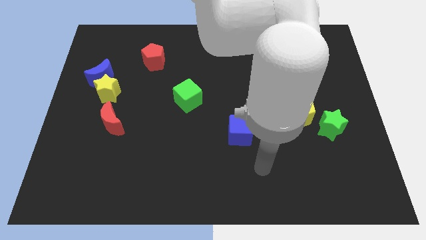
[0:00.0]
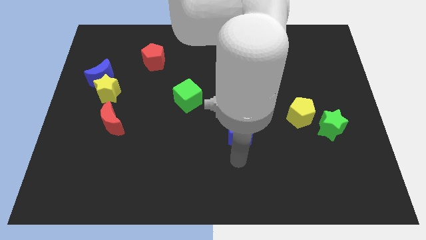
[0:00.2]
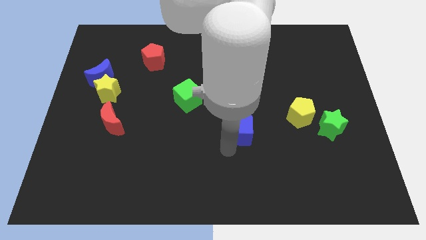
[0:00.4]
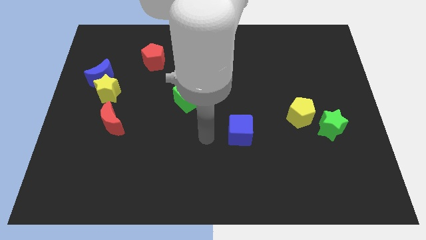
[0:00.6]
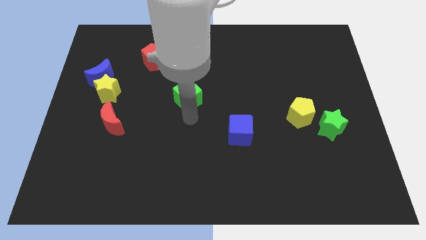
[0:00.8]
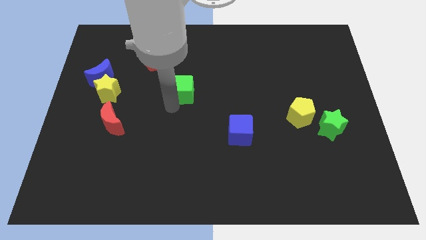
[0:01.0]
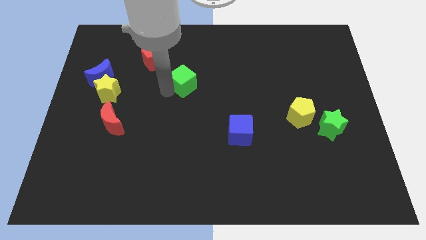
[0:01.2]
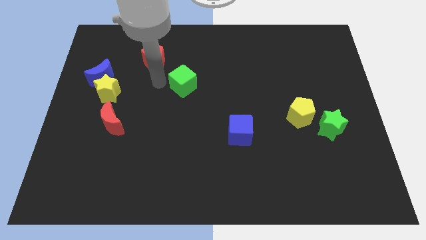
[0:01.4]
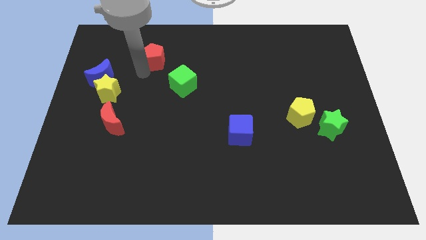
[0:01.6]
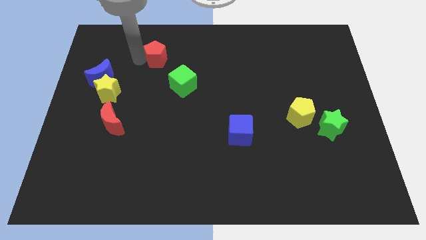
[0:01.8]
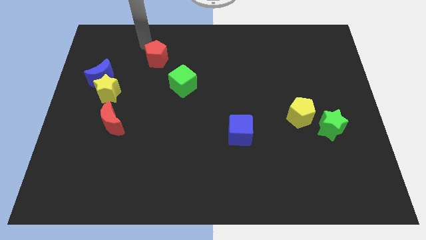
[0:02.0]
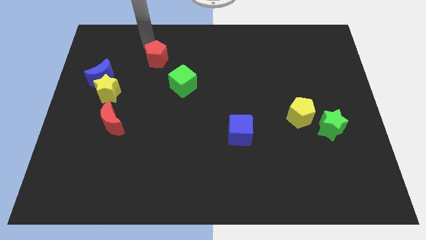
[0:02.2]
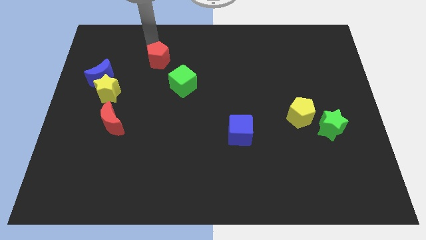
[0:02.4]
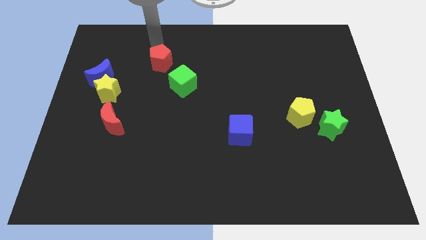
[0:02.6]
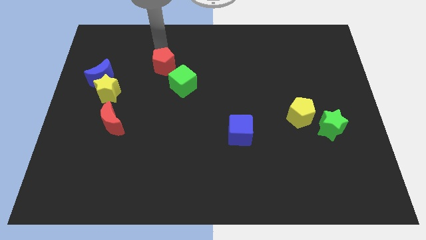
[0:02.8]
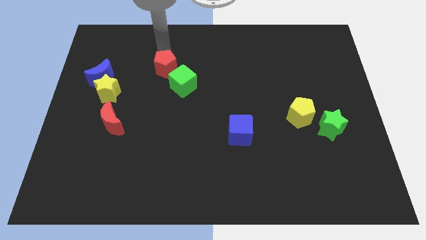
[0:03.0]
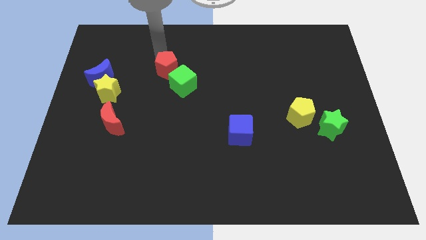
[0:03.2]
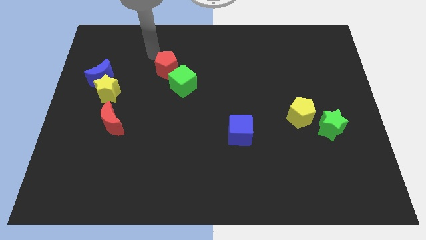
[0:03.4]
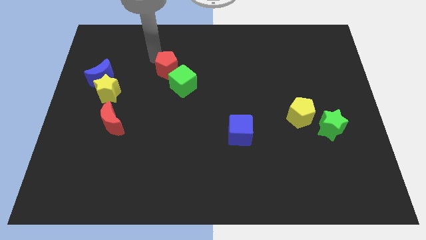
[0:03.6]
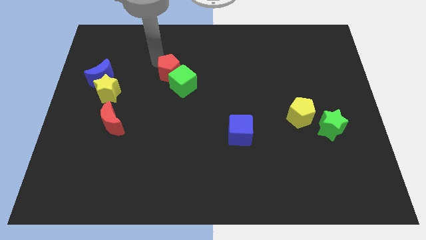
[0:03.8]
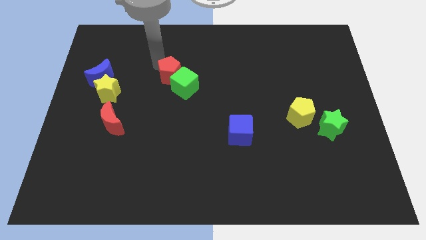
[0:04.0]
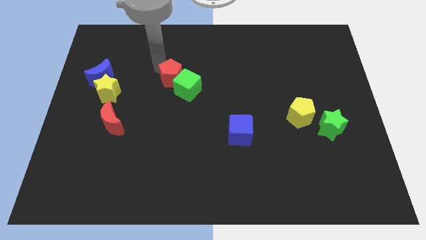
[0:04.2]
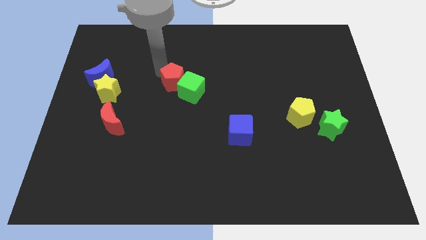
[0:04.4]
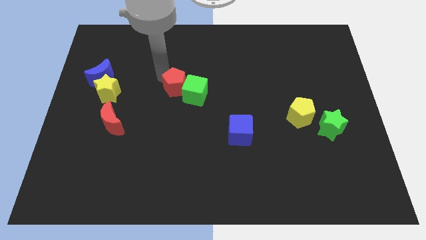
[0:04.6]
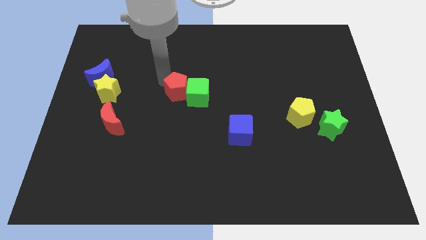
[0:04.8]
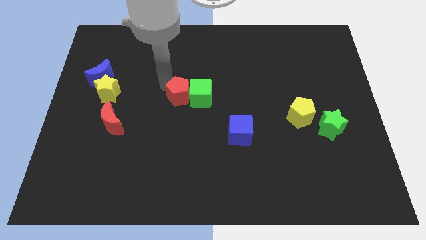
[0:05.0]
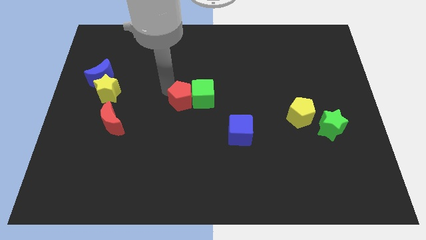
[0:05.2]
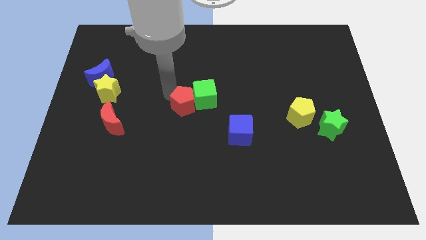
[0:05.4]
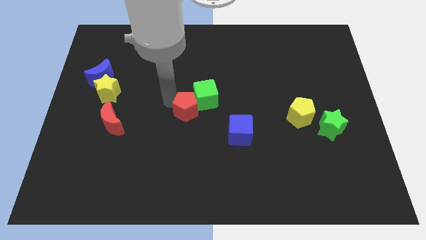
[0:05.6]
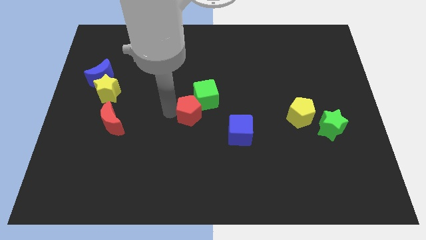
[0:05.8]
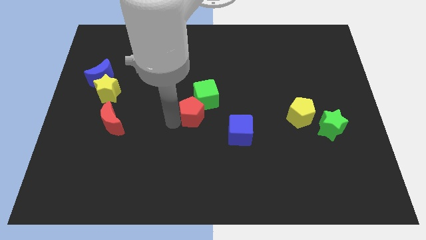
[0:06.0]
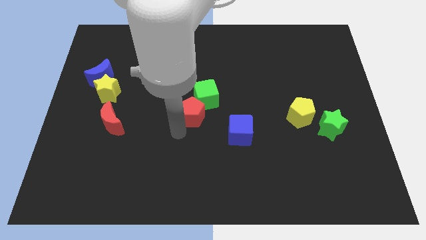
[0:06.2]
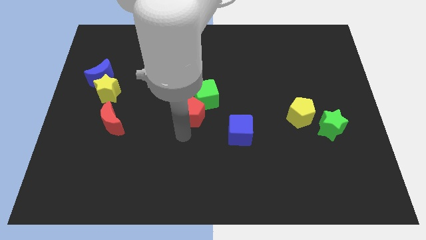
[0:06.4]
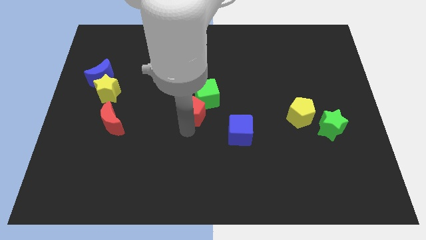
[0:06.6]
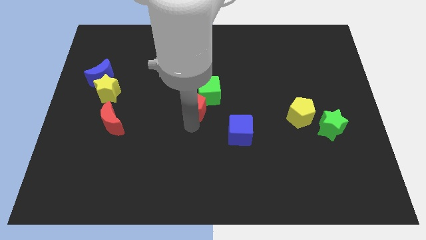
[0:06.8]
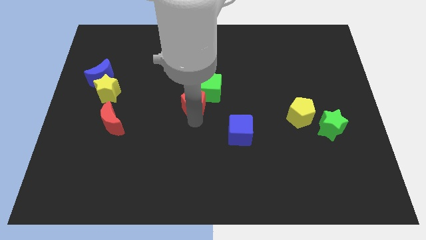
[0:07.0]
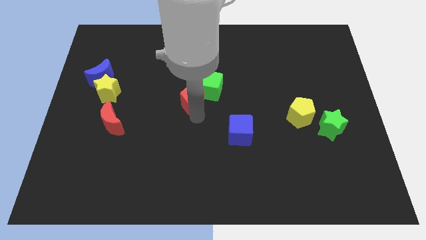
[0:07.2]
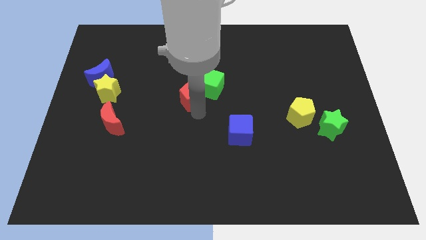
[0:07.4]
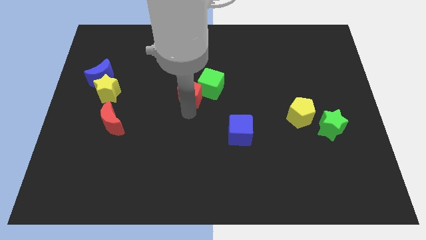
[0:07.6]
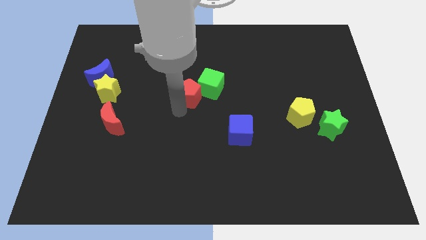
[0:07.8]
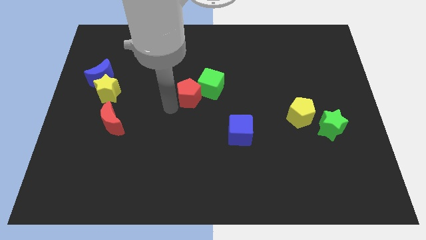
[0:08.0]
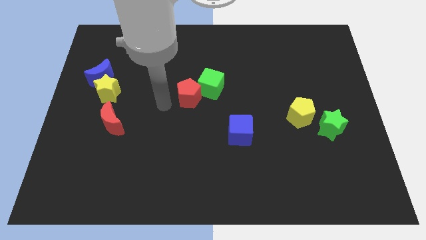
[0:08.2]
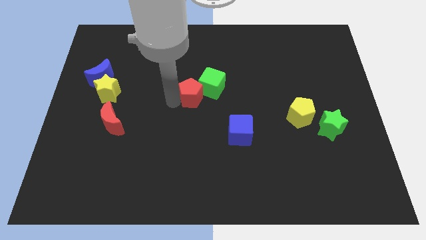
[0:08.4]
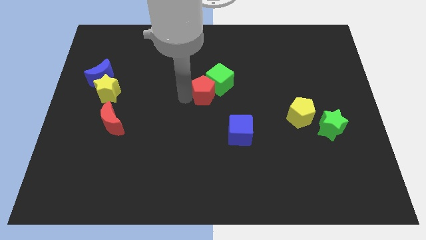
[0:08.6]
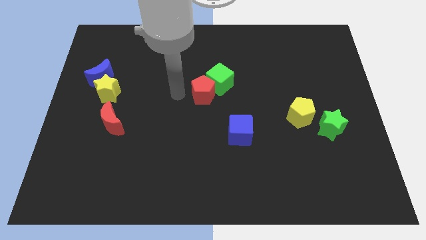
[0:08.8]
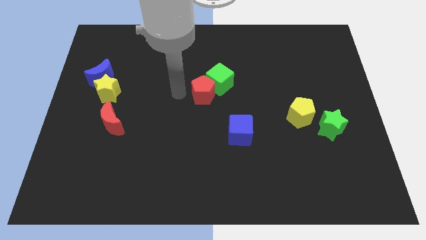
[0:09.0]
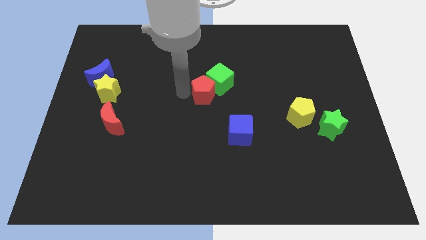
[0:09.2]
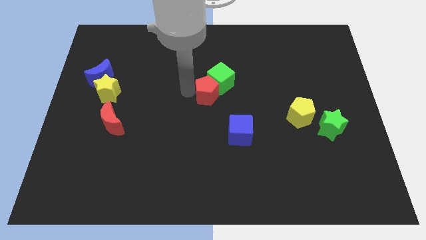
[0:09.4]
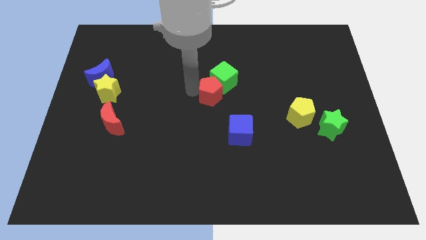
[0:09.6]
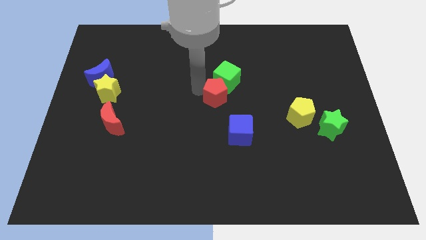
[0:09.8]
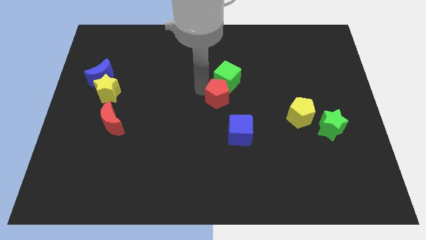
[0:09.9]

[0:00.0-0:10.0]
move the red pentagon to the top side of the blue cube

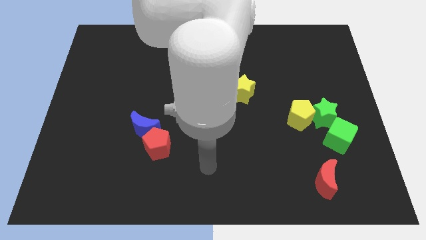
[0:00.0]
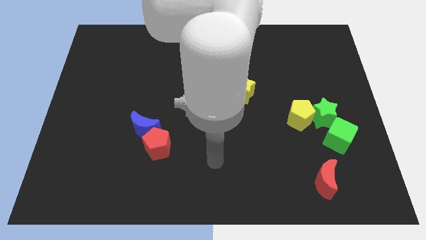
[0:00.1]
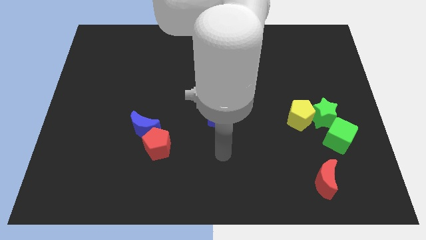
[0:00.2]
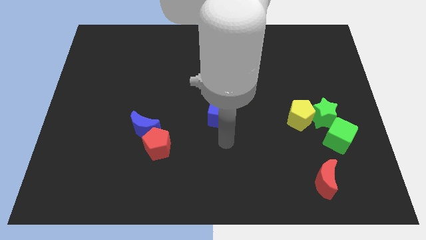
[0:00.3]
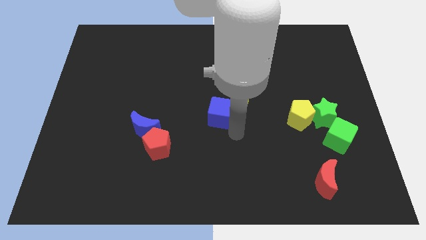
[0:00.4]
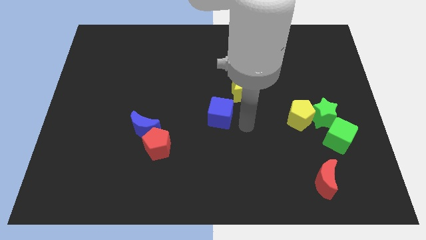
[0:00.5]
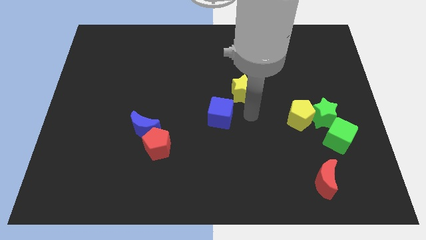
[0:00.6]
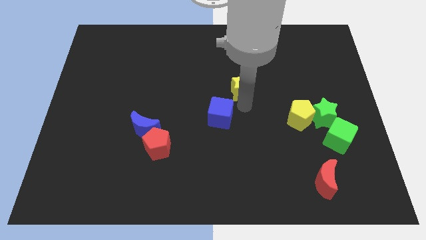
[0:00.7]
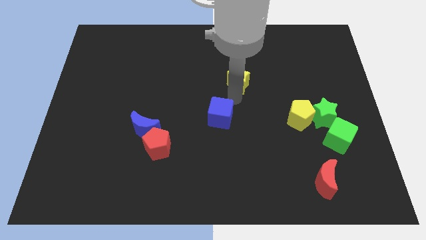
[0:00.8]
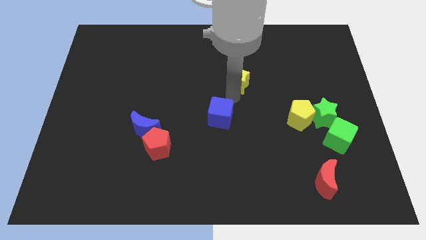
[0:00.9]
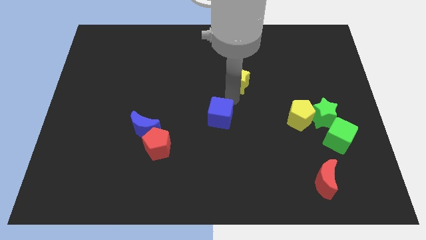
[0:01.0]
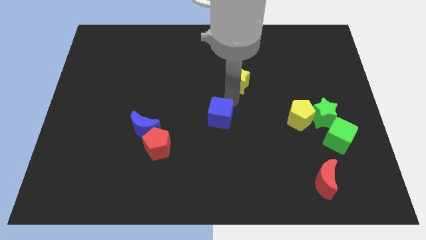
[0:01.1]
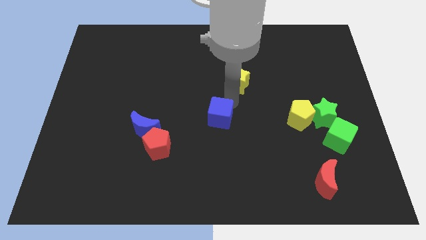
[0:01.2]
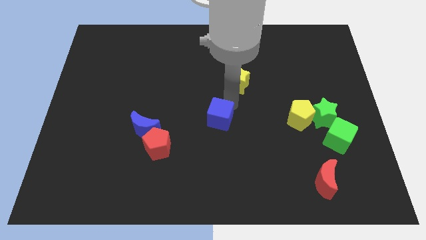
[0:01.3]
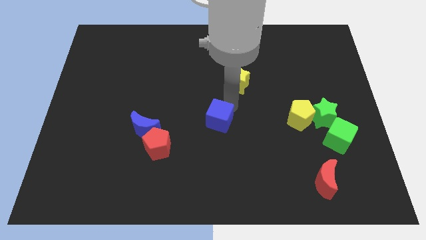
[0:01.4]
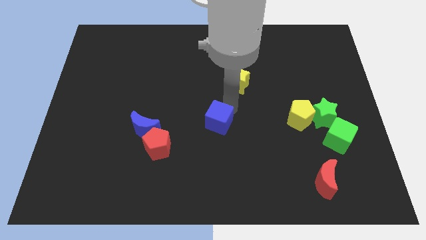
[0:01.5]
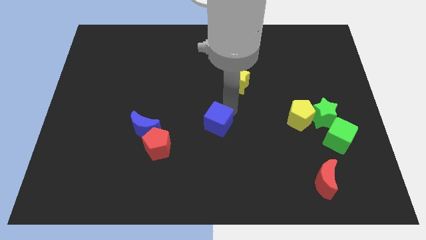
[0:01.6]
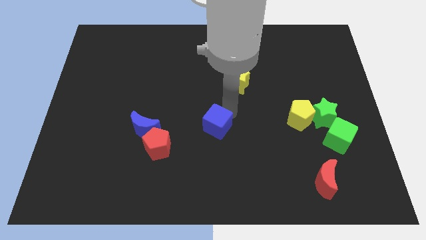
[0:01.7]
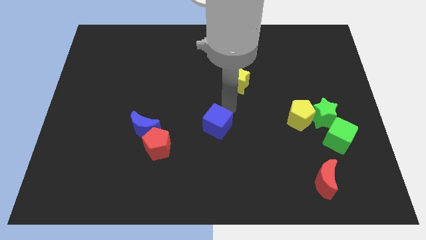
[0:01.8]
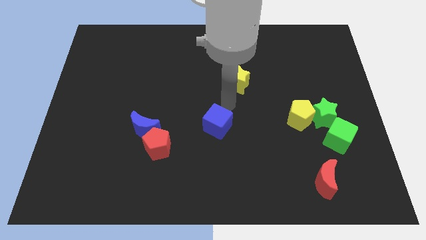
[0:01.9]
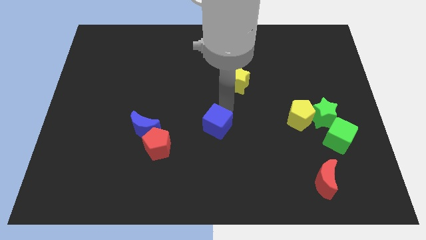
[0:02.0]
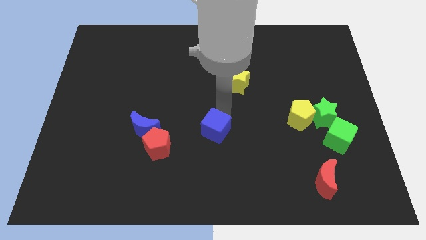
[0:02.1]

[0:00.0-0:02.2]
put the blue cube to the right of the red pentagon
